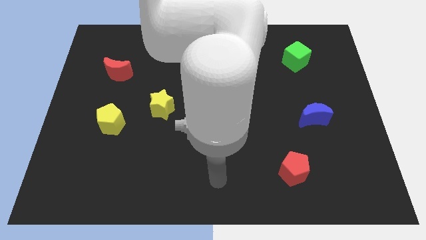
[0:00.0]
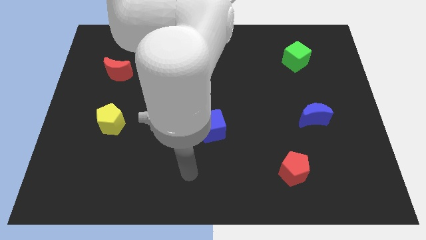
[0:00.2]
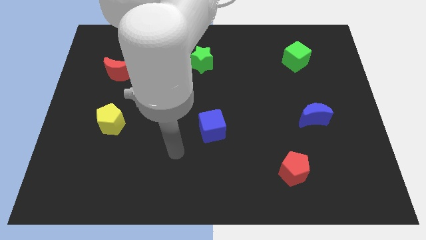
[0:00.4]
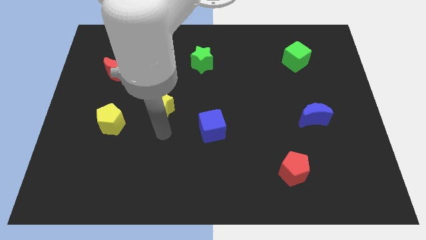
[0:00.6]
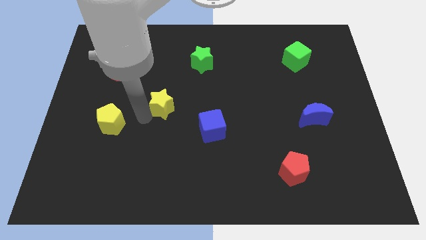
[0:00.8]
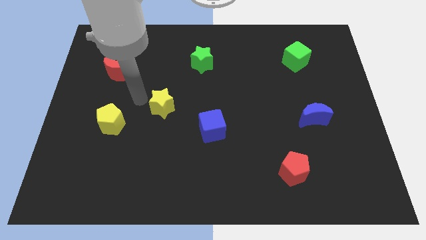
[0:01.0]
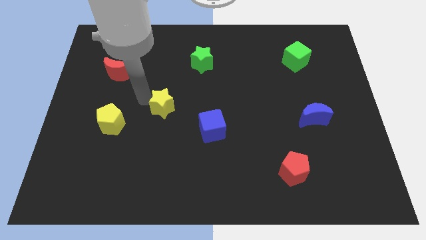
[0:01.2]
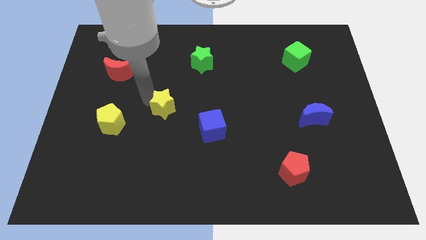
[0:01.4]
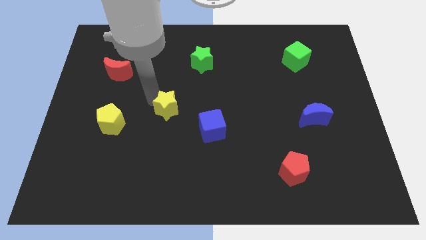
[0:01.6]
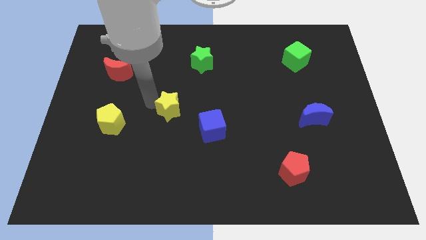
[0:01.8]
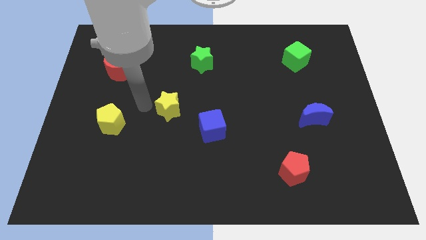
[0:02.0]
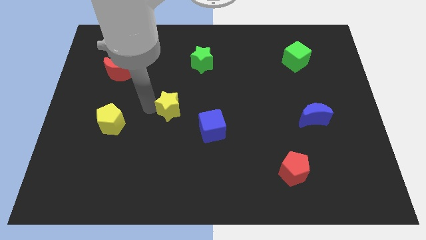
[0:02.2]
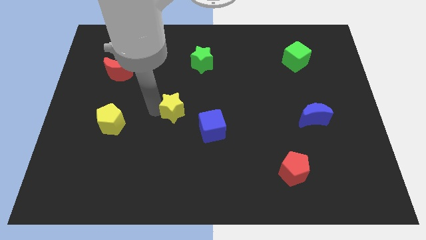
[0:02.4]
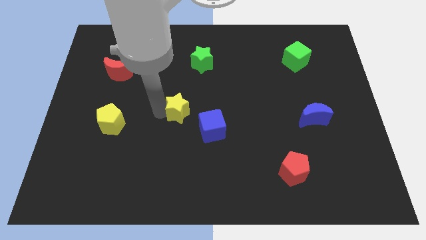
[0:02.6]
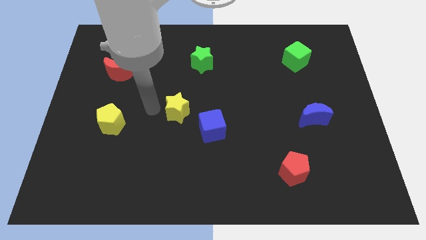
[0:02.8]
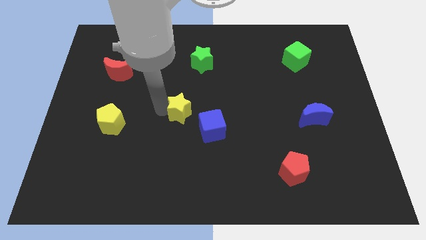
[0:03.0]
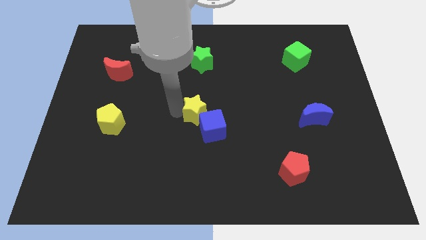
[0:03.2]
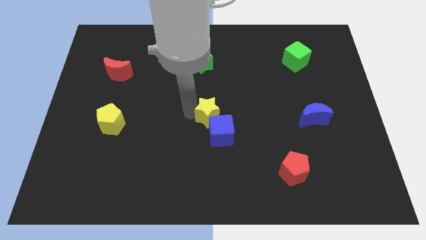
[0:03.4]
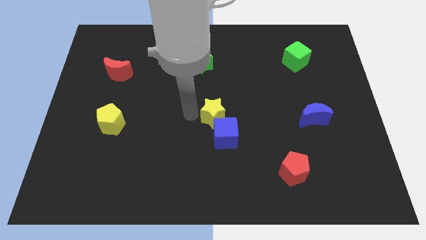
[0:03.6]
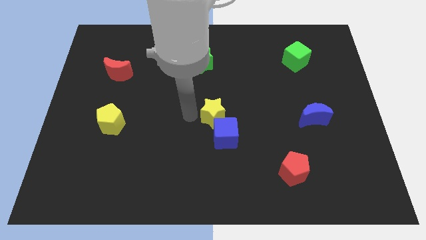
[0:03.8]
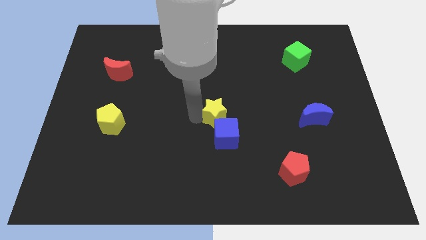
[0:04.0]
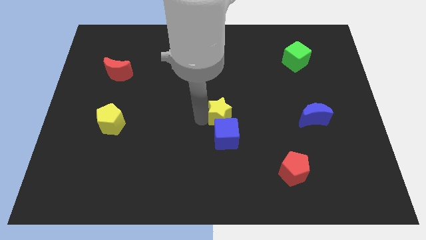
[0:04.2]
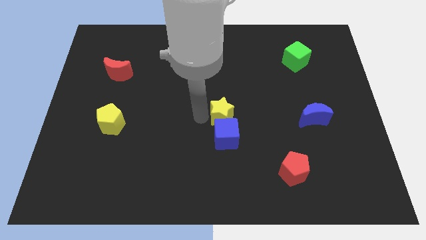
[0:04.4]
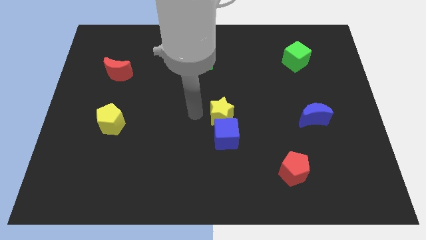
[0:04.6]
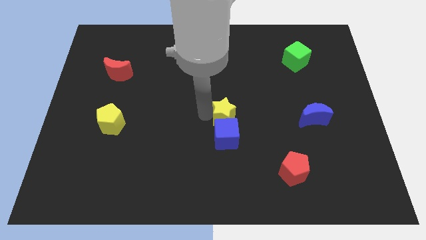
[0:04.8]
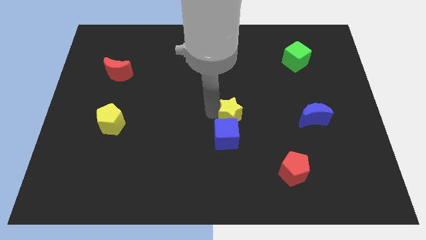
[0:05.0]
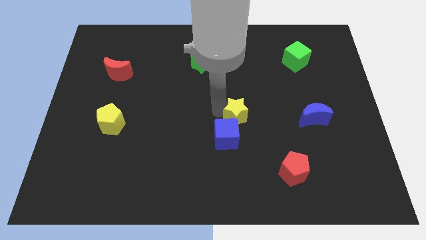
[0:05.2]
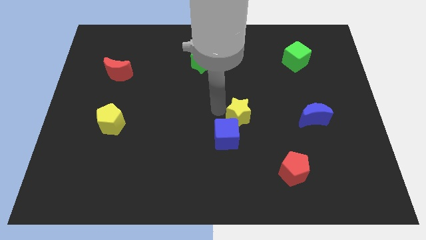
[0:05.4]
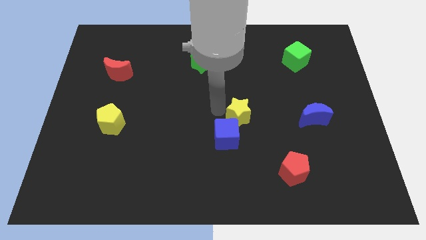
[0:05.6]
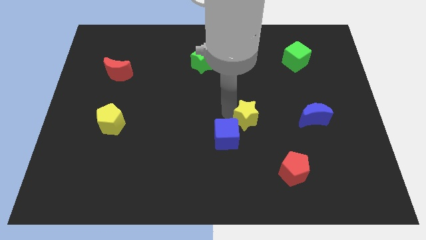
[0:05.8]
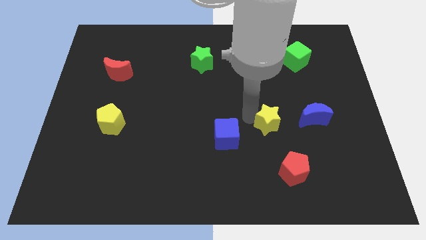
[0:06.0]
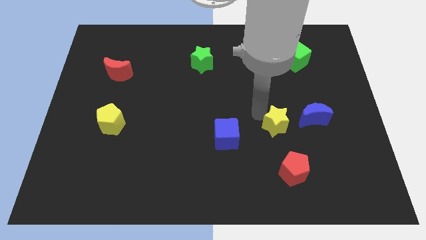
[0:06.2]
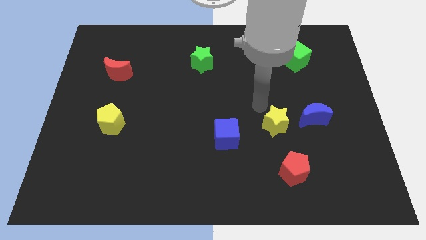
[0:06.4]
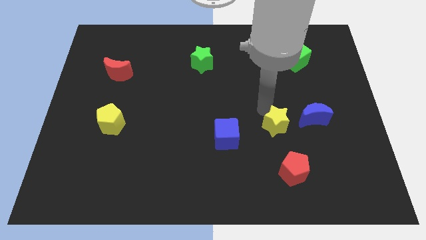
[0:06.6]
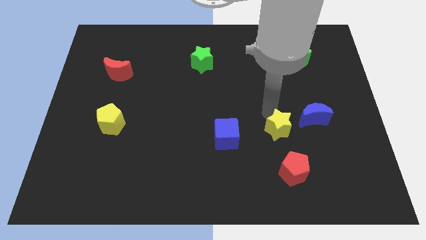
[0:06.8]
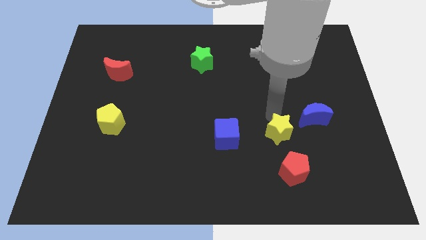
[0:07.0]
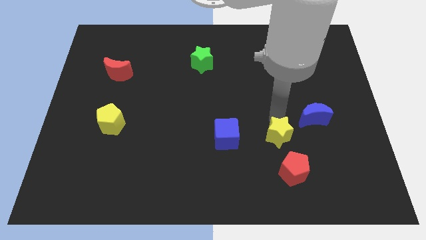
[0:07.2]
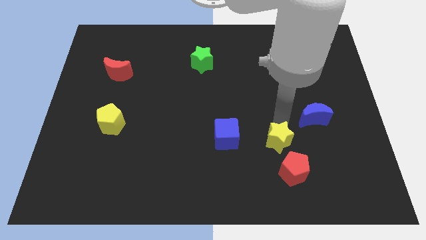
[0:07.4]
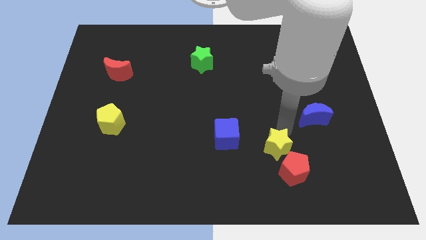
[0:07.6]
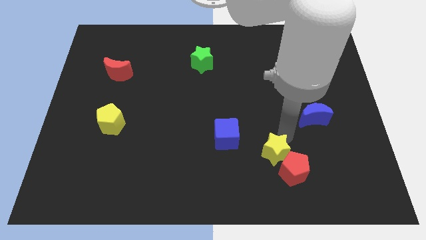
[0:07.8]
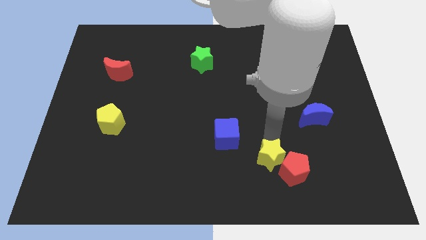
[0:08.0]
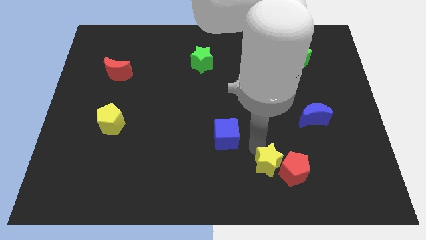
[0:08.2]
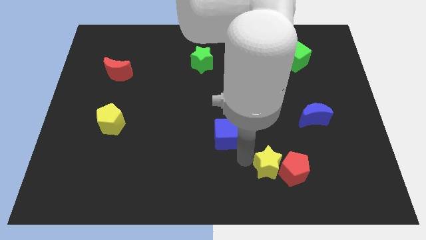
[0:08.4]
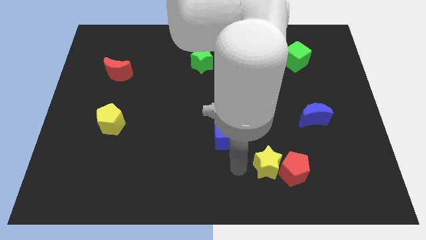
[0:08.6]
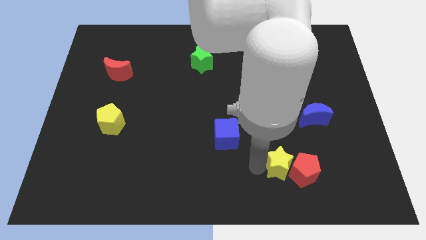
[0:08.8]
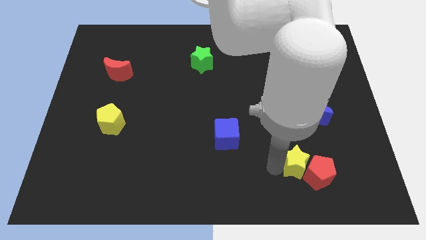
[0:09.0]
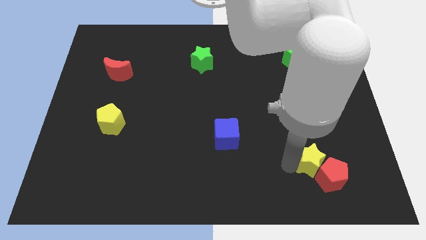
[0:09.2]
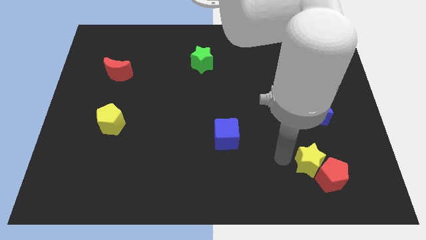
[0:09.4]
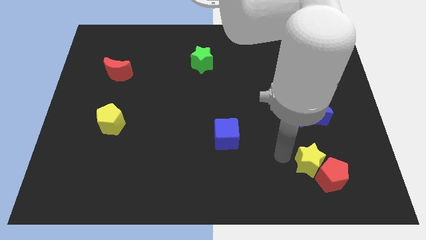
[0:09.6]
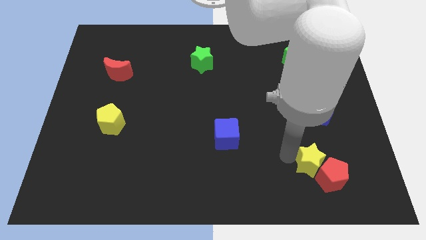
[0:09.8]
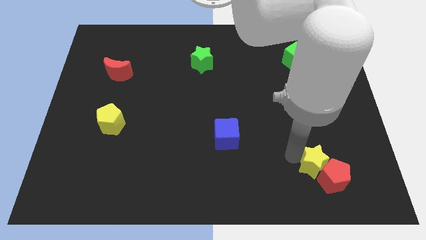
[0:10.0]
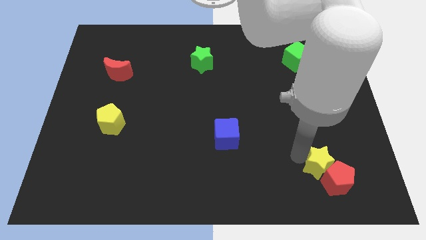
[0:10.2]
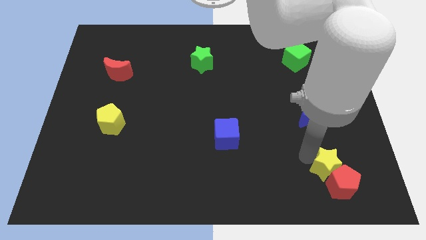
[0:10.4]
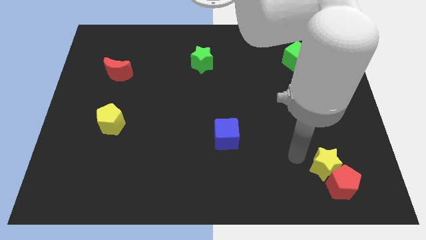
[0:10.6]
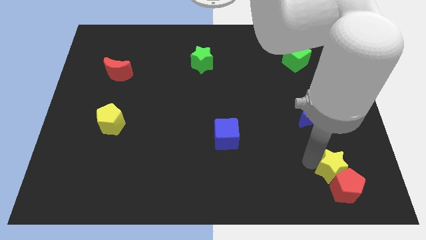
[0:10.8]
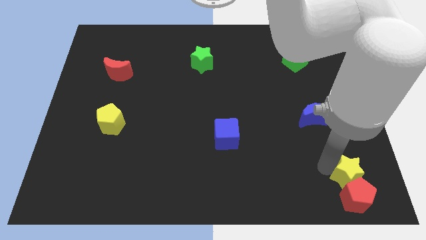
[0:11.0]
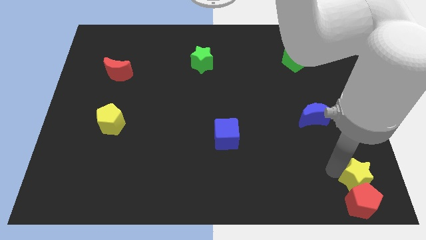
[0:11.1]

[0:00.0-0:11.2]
move the yellow star to the bottom right

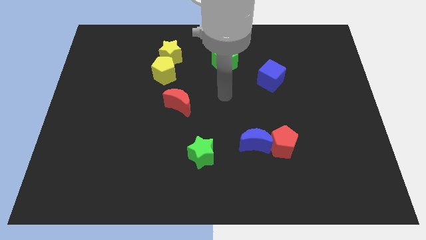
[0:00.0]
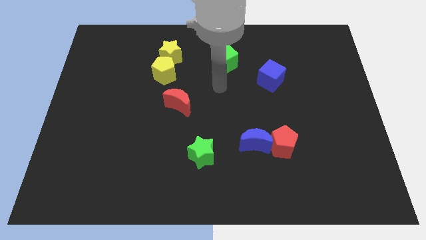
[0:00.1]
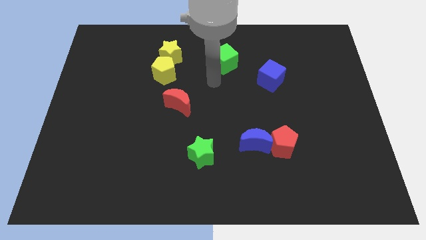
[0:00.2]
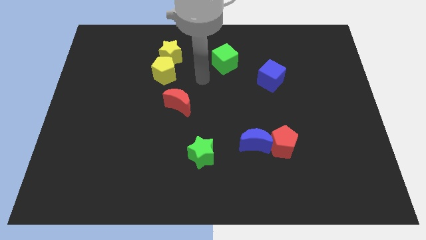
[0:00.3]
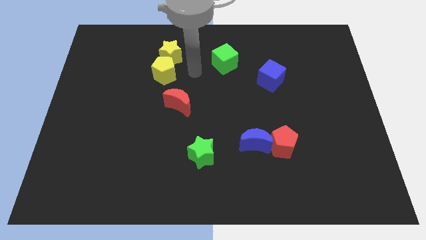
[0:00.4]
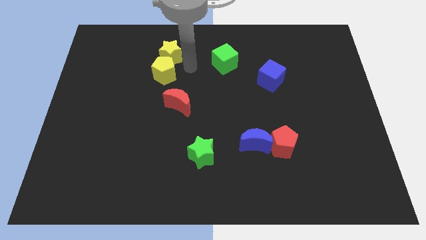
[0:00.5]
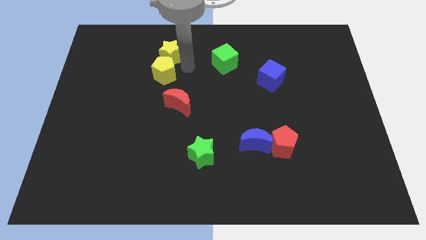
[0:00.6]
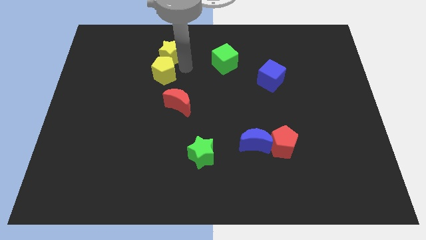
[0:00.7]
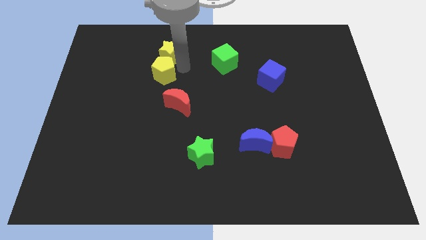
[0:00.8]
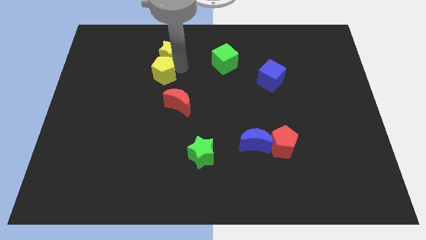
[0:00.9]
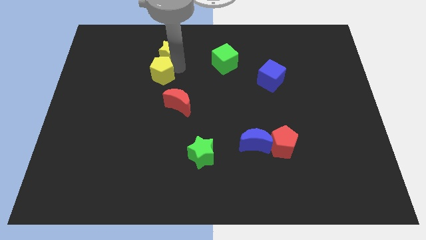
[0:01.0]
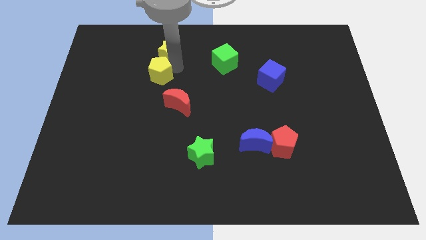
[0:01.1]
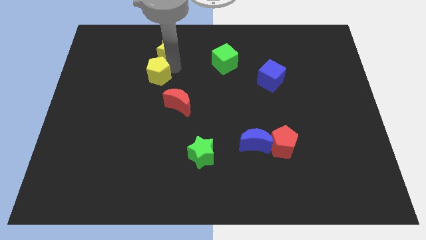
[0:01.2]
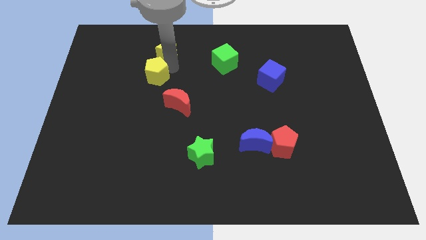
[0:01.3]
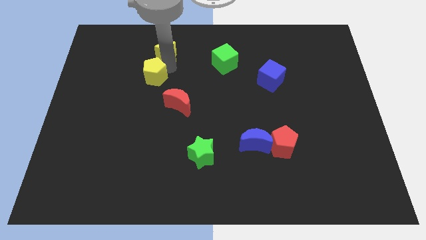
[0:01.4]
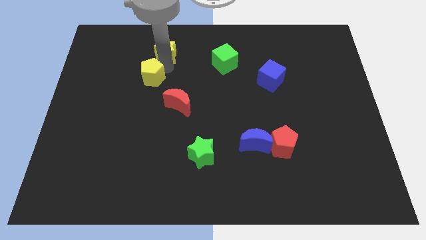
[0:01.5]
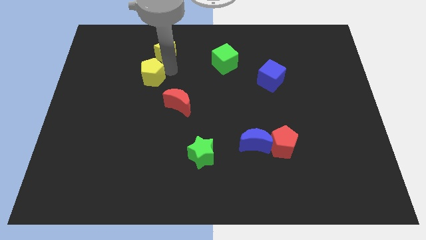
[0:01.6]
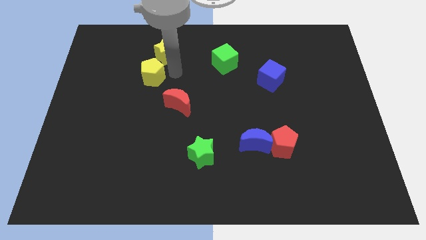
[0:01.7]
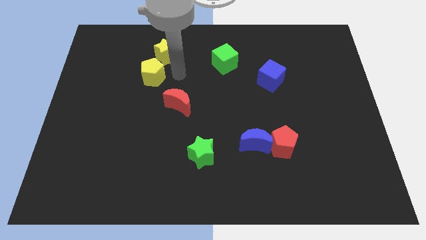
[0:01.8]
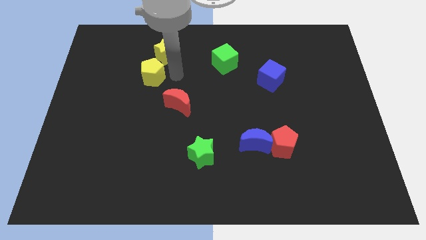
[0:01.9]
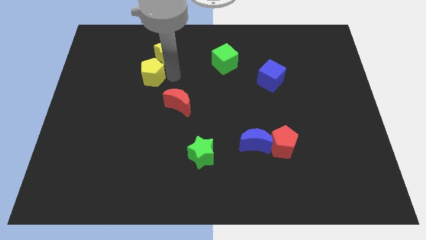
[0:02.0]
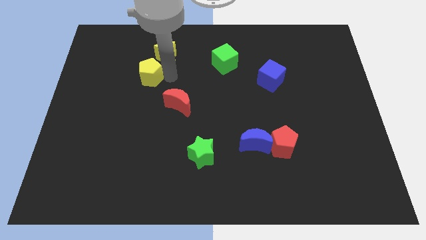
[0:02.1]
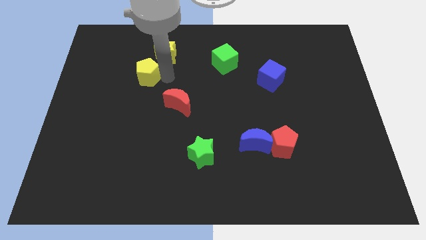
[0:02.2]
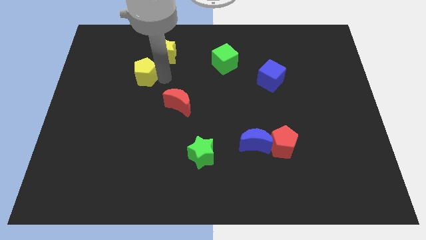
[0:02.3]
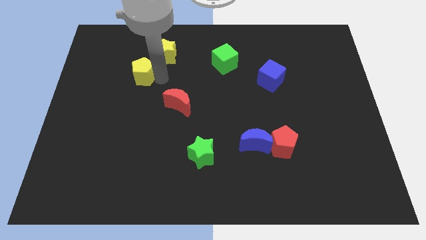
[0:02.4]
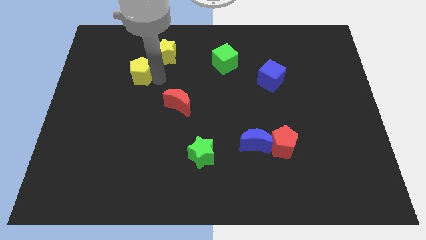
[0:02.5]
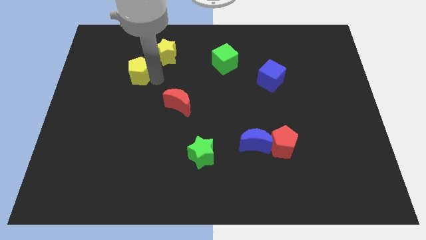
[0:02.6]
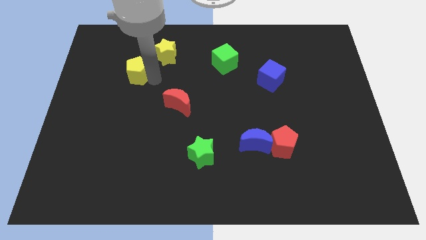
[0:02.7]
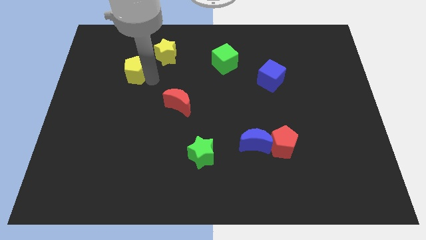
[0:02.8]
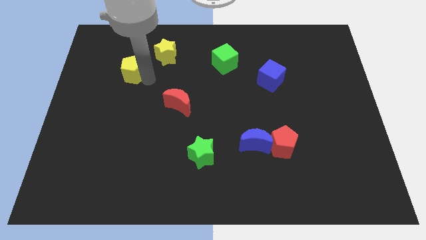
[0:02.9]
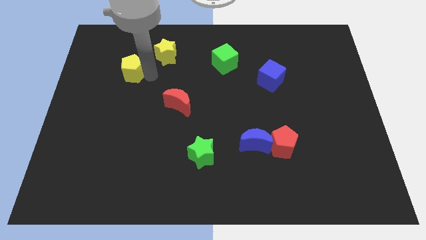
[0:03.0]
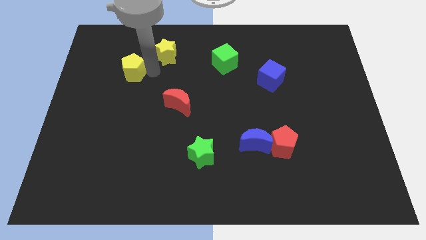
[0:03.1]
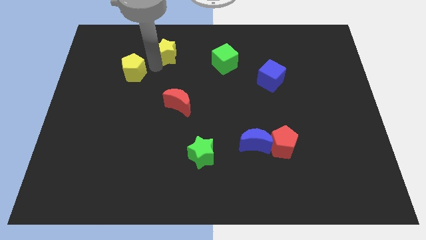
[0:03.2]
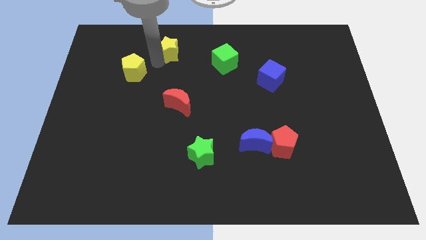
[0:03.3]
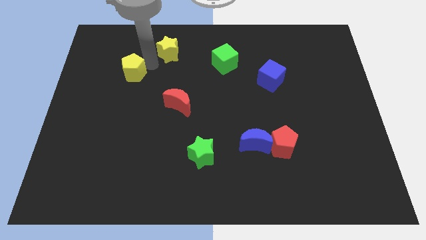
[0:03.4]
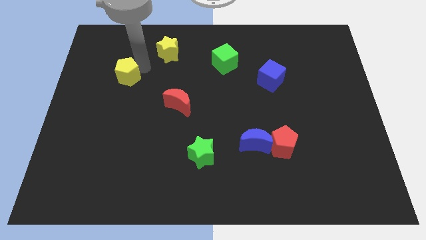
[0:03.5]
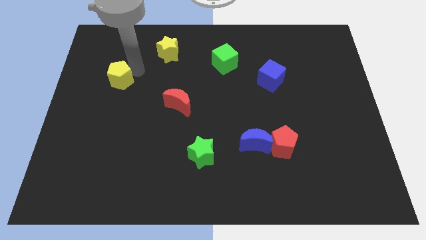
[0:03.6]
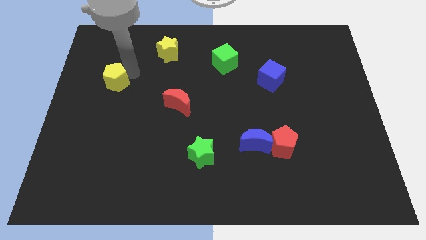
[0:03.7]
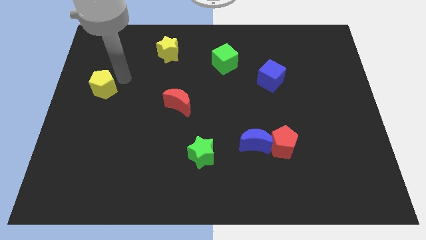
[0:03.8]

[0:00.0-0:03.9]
put the yellow pentagon to the center left
